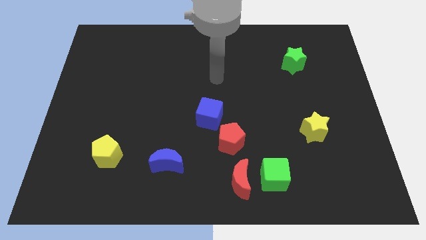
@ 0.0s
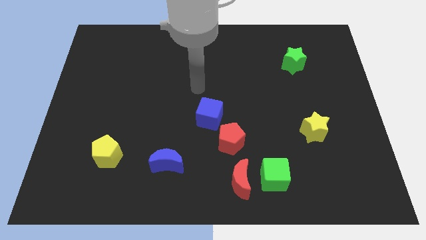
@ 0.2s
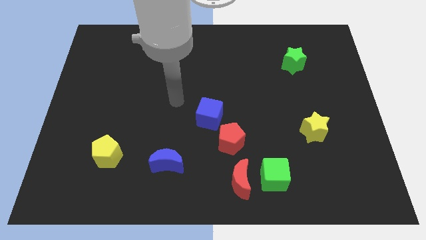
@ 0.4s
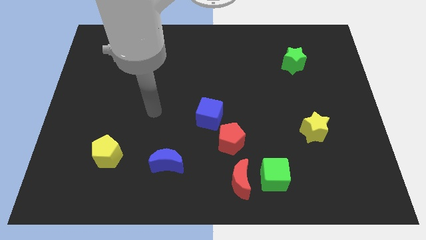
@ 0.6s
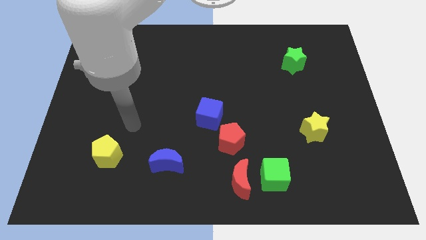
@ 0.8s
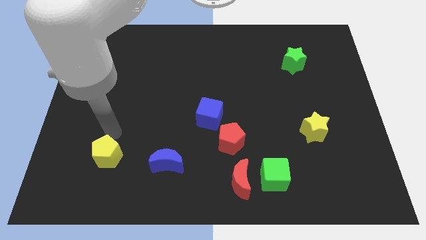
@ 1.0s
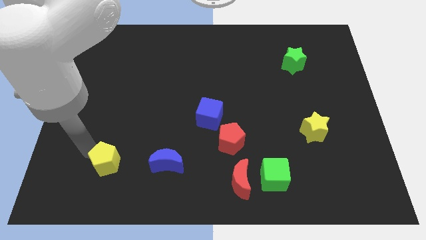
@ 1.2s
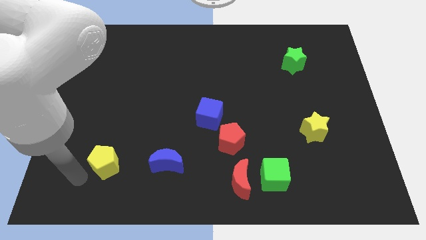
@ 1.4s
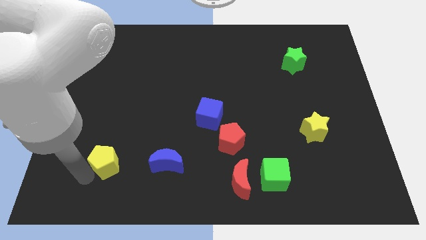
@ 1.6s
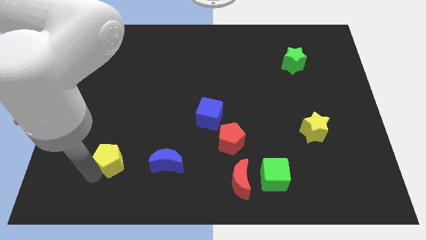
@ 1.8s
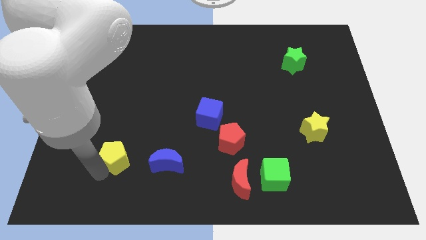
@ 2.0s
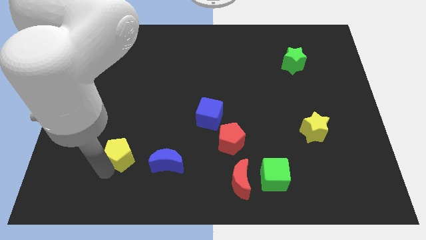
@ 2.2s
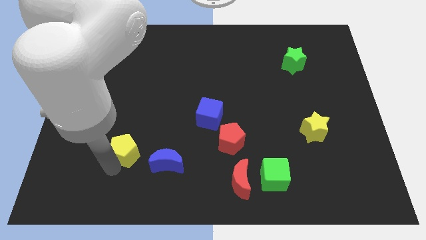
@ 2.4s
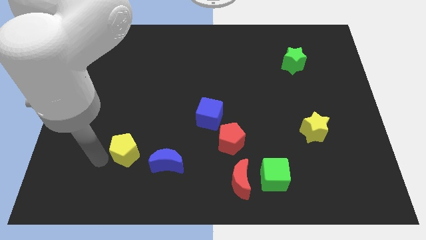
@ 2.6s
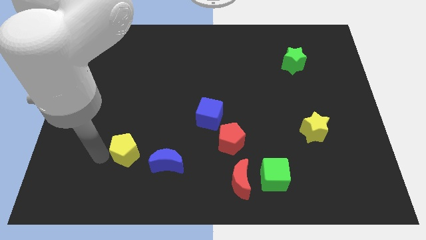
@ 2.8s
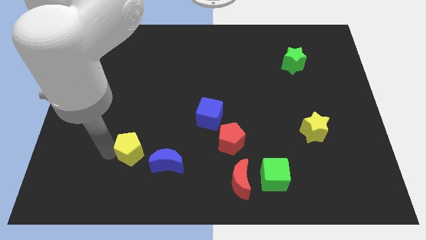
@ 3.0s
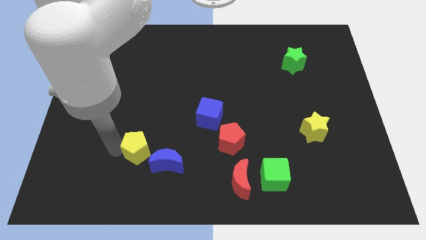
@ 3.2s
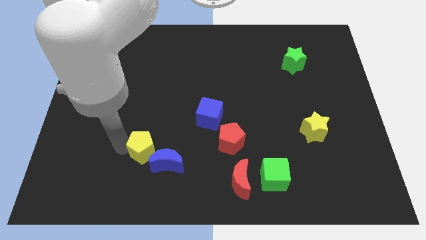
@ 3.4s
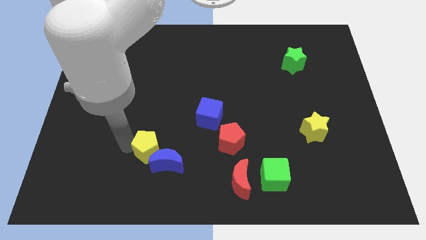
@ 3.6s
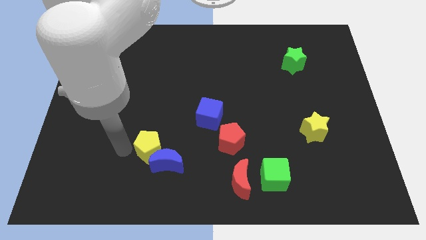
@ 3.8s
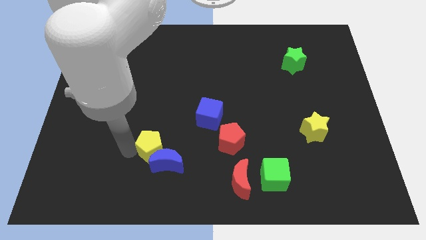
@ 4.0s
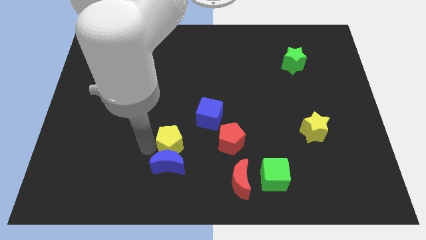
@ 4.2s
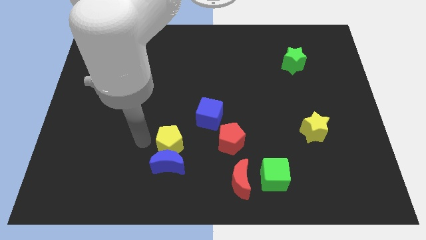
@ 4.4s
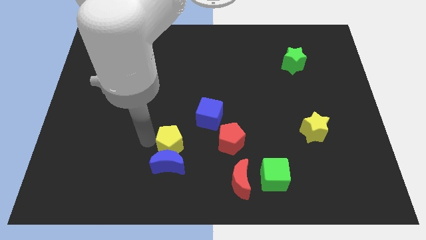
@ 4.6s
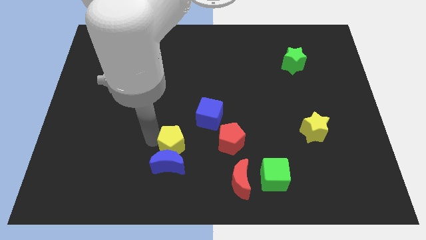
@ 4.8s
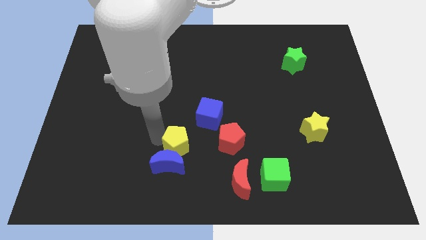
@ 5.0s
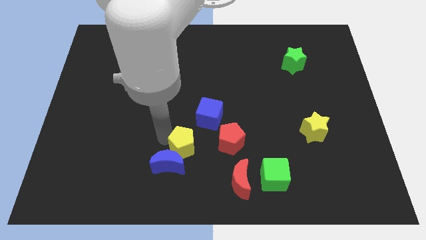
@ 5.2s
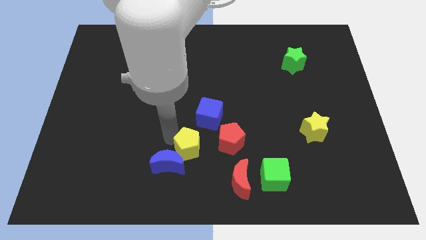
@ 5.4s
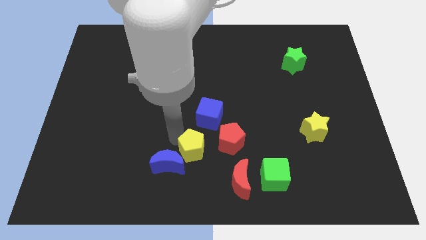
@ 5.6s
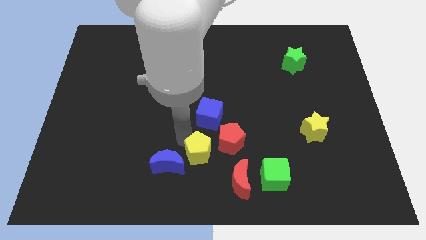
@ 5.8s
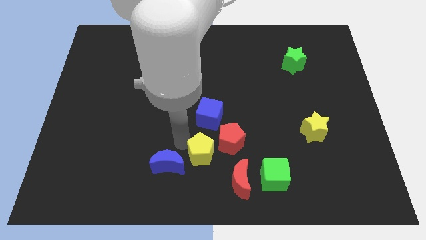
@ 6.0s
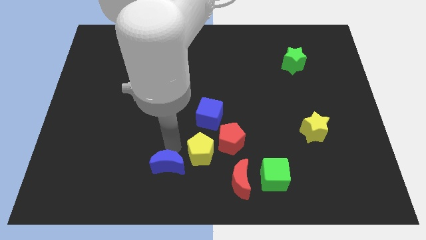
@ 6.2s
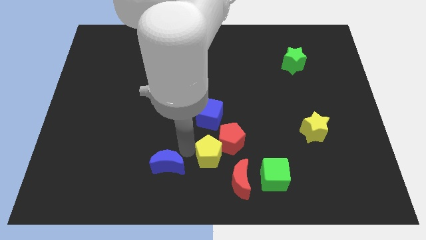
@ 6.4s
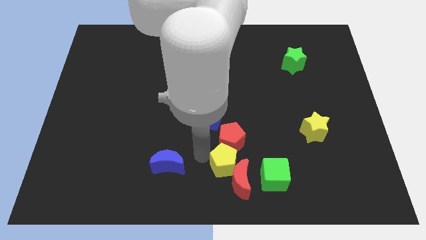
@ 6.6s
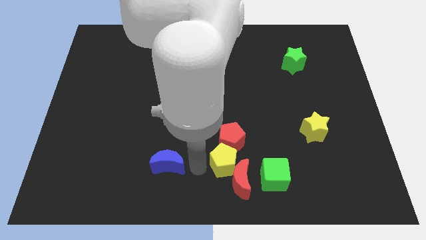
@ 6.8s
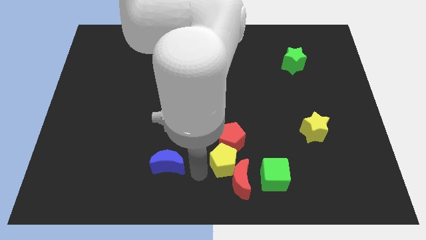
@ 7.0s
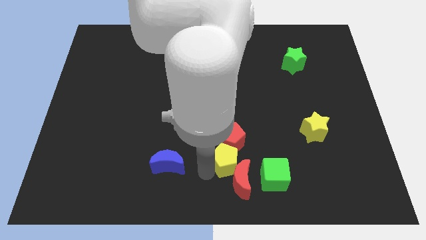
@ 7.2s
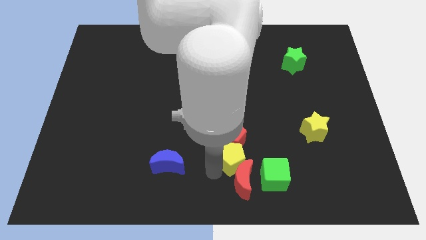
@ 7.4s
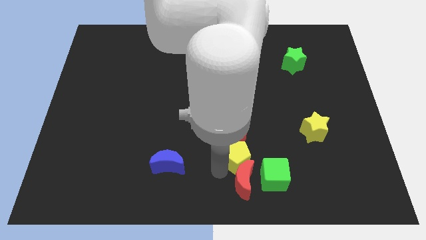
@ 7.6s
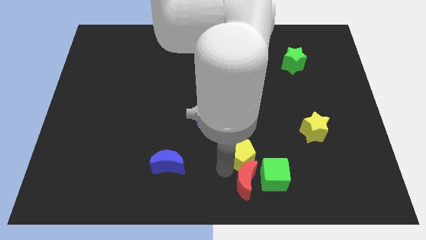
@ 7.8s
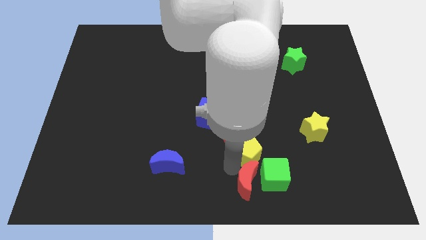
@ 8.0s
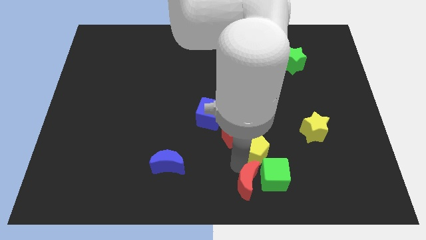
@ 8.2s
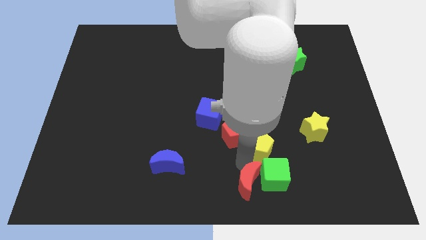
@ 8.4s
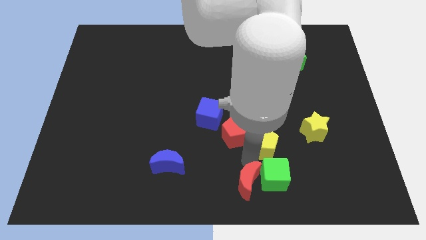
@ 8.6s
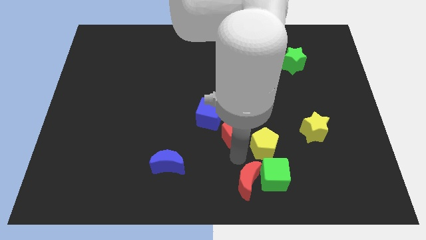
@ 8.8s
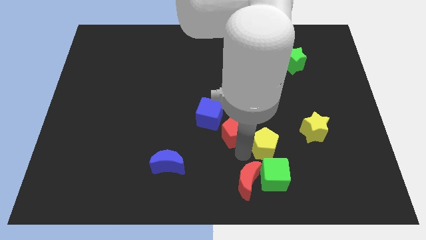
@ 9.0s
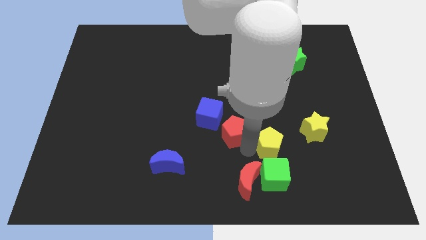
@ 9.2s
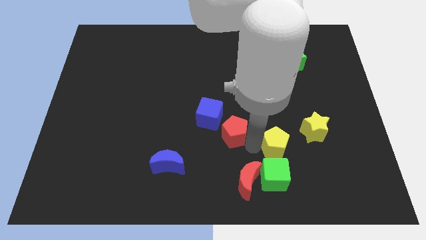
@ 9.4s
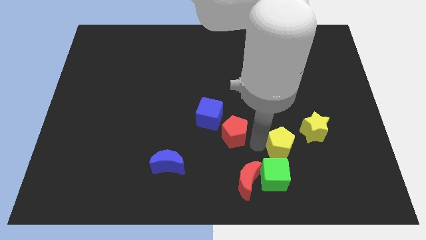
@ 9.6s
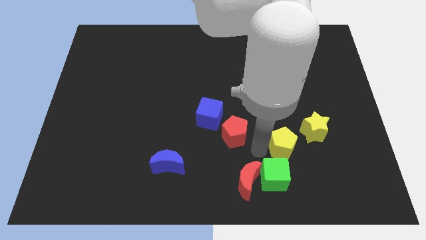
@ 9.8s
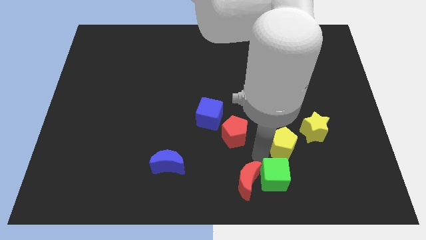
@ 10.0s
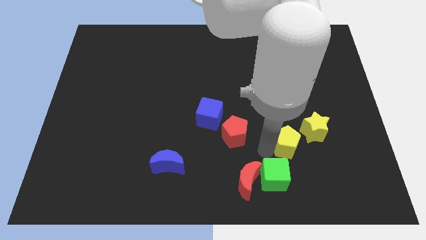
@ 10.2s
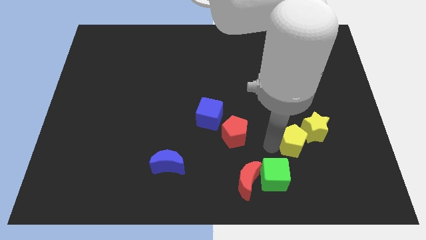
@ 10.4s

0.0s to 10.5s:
push the yellow pentagon next to the yellow star

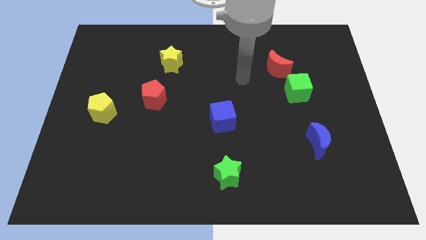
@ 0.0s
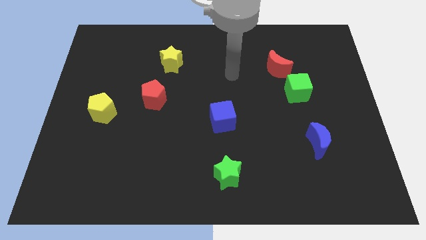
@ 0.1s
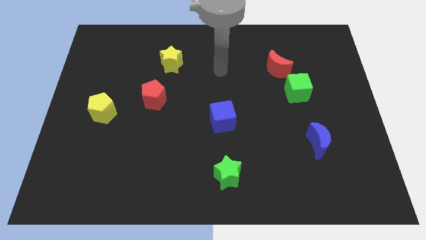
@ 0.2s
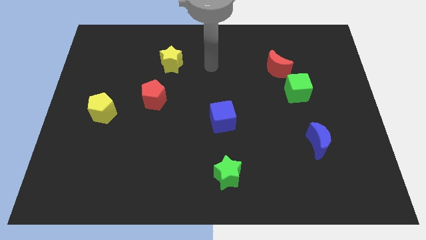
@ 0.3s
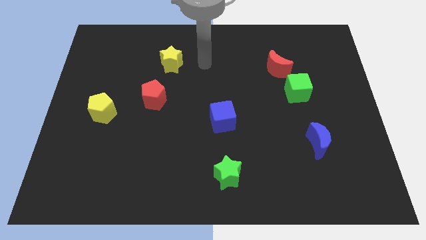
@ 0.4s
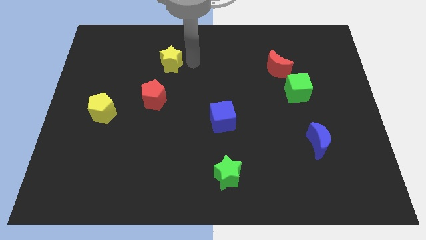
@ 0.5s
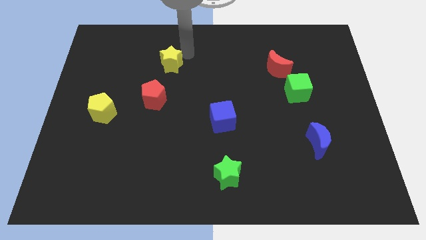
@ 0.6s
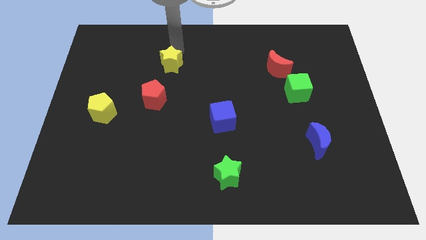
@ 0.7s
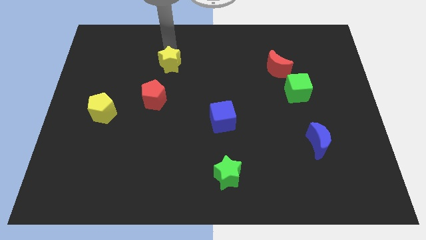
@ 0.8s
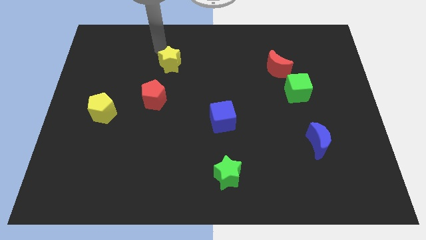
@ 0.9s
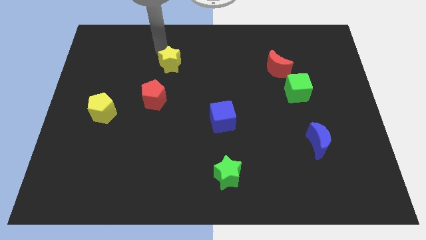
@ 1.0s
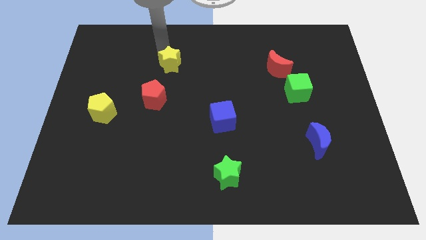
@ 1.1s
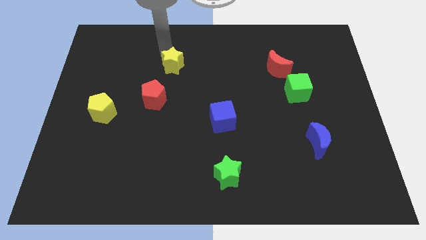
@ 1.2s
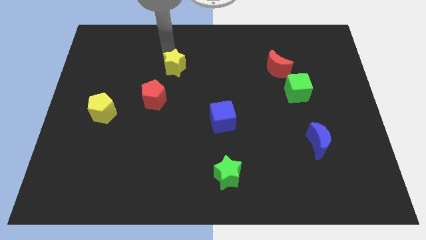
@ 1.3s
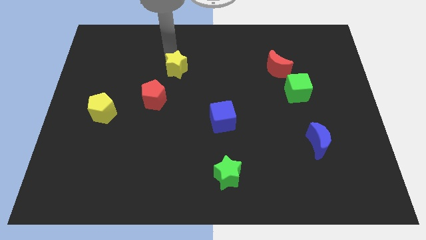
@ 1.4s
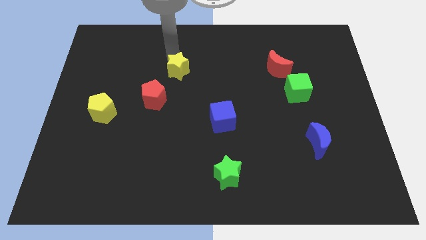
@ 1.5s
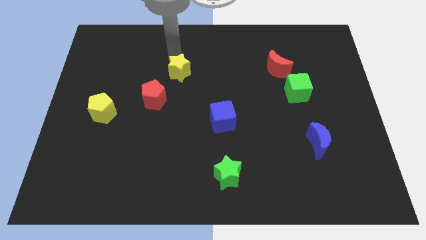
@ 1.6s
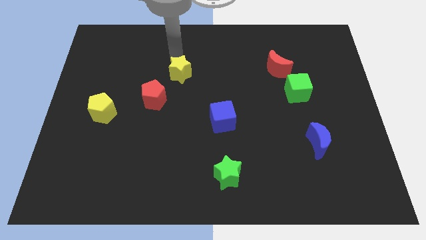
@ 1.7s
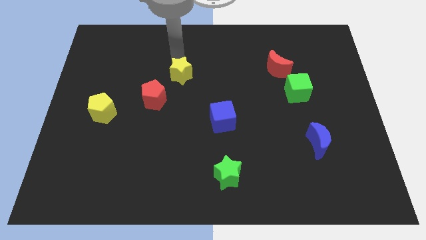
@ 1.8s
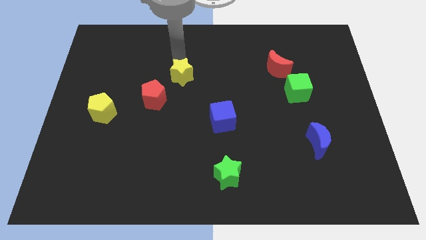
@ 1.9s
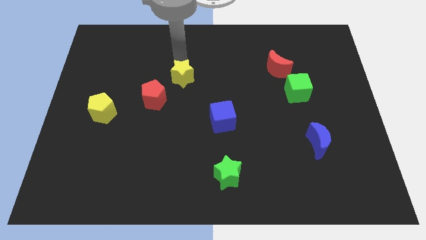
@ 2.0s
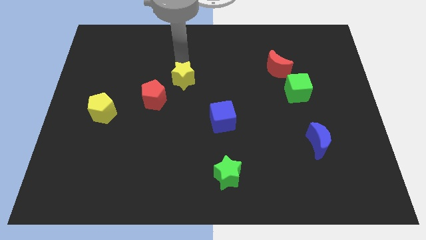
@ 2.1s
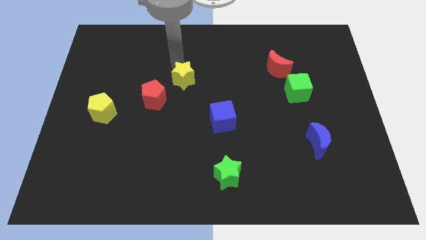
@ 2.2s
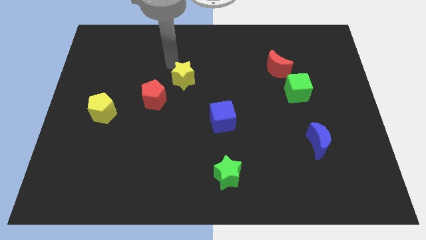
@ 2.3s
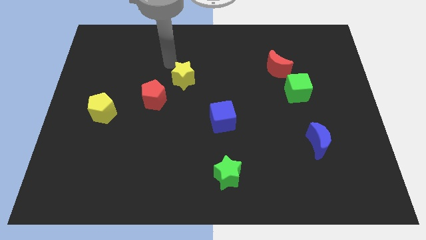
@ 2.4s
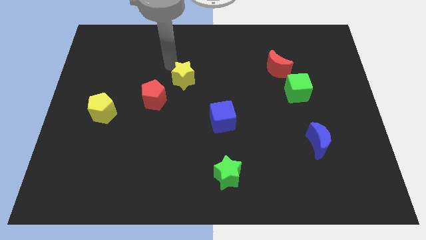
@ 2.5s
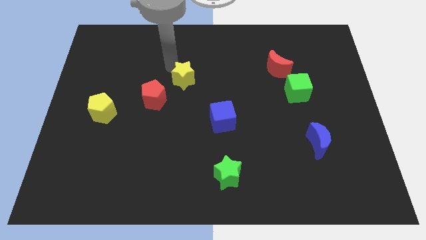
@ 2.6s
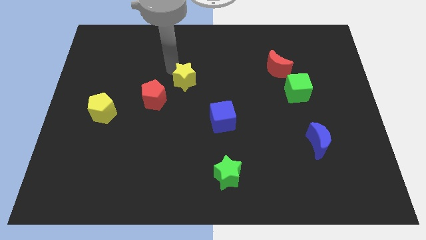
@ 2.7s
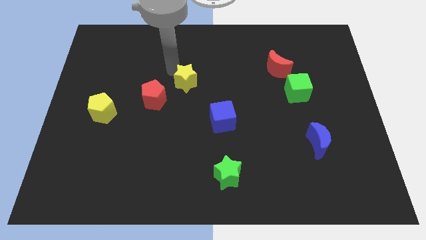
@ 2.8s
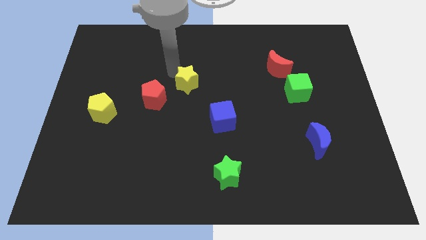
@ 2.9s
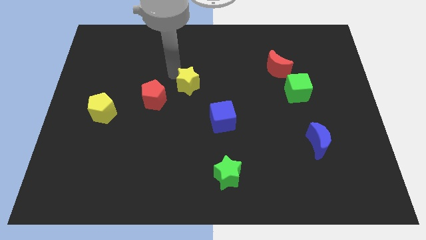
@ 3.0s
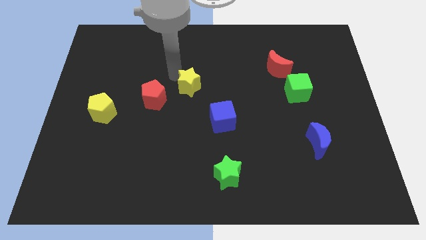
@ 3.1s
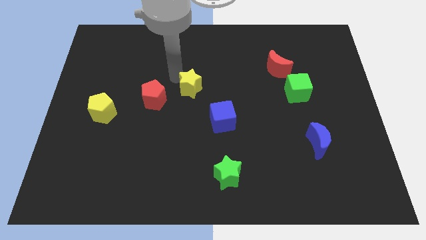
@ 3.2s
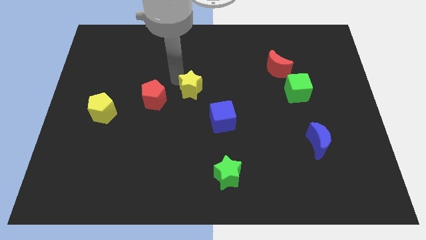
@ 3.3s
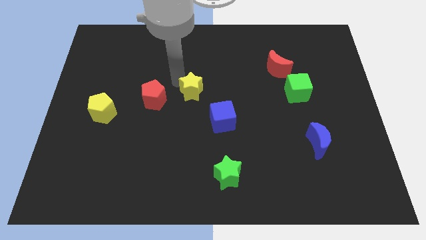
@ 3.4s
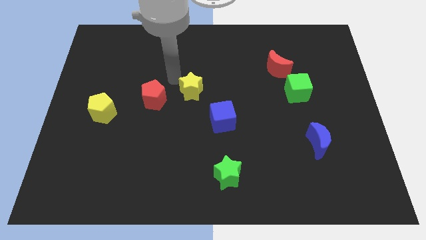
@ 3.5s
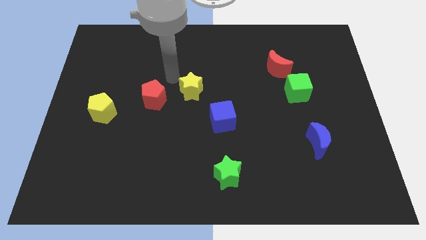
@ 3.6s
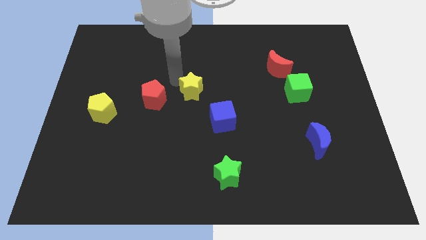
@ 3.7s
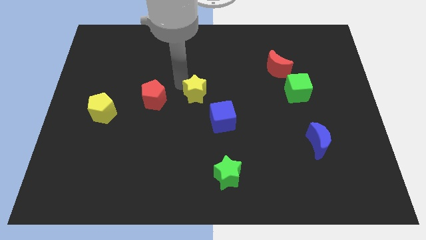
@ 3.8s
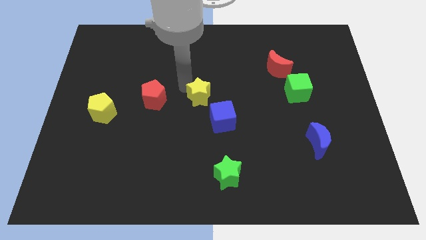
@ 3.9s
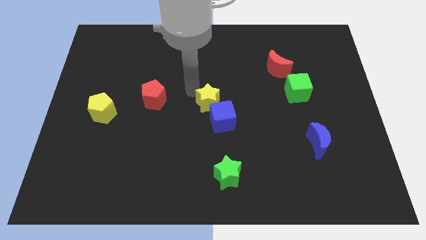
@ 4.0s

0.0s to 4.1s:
push the yellow star next to the blue cube
